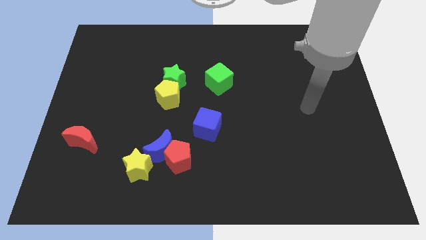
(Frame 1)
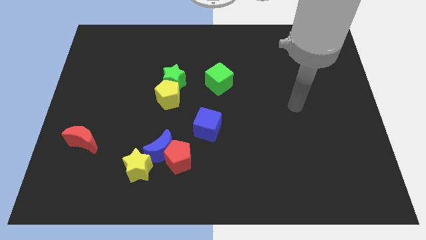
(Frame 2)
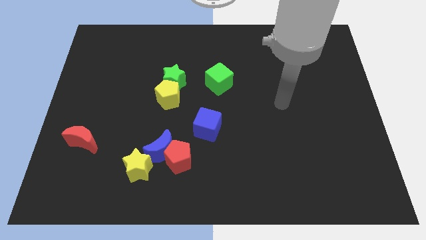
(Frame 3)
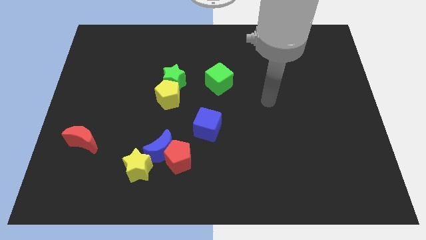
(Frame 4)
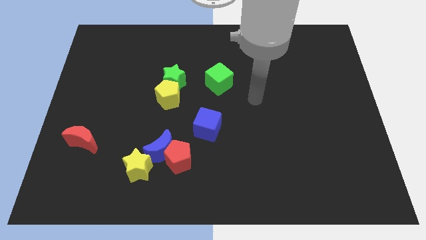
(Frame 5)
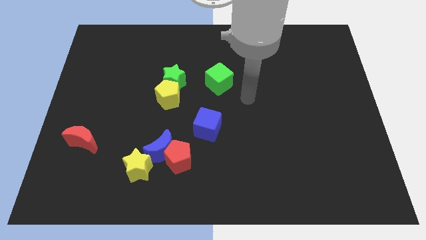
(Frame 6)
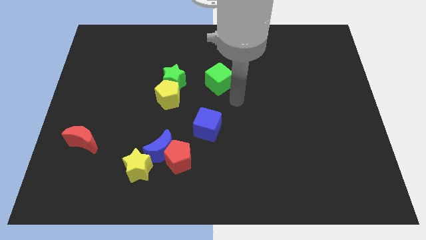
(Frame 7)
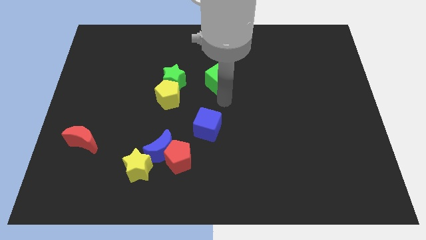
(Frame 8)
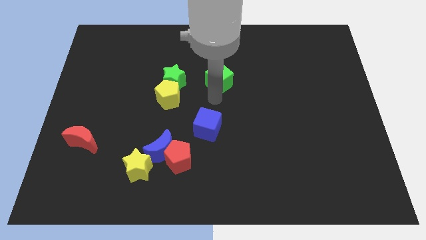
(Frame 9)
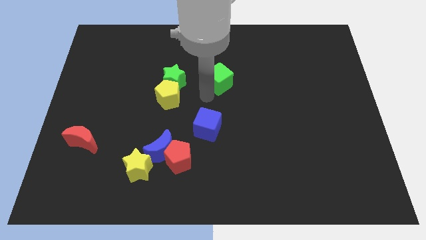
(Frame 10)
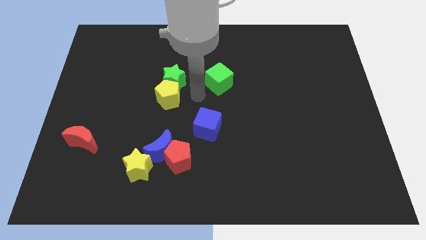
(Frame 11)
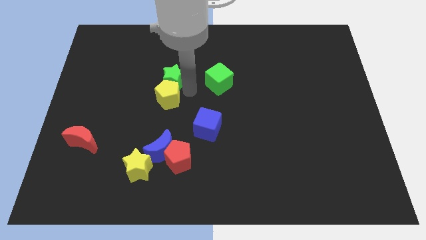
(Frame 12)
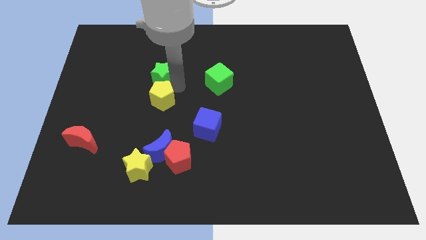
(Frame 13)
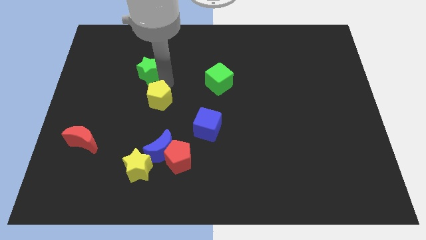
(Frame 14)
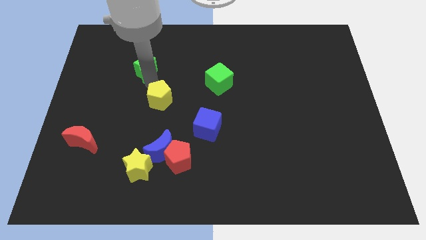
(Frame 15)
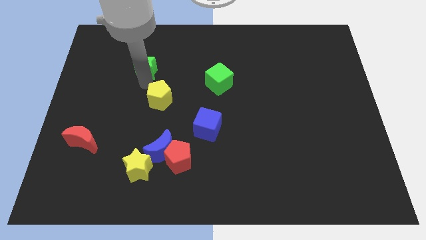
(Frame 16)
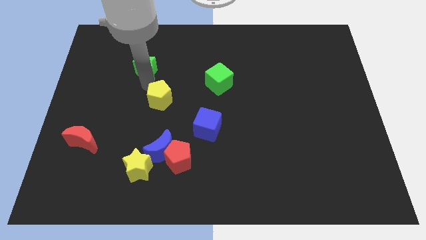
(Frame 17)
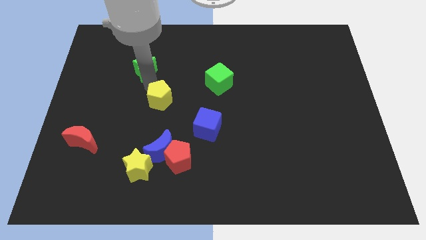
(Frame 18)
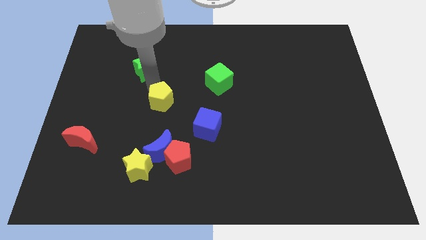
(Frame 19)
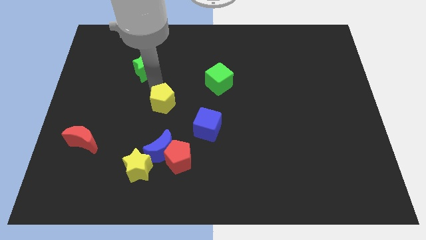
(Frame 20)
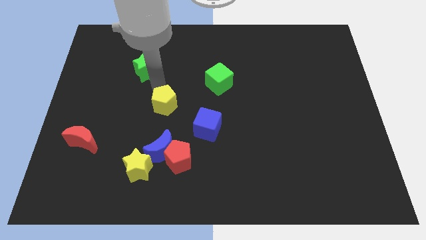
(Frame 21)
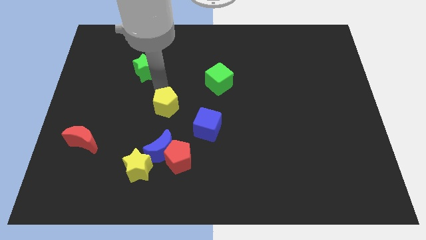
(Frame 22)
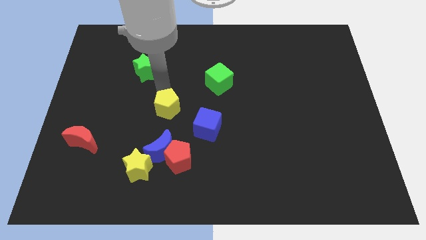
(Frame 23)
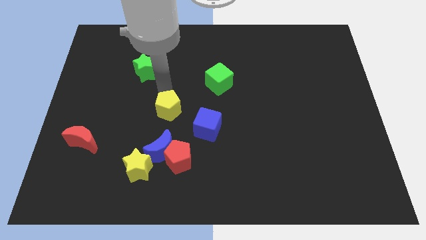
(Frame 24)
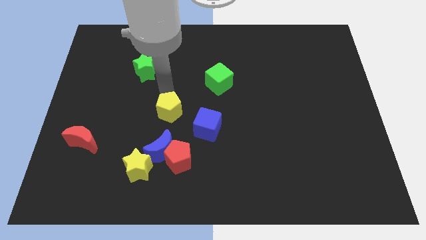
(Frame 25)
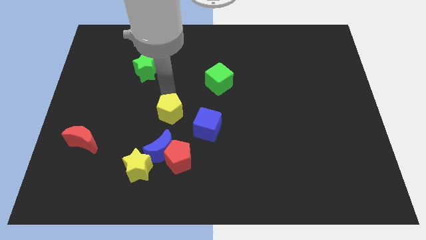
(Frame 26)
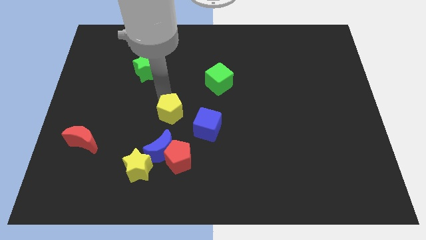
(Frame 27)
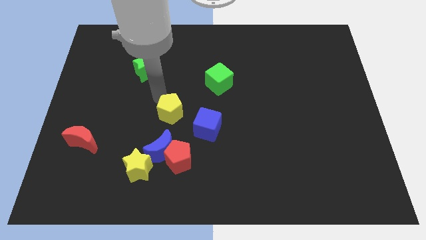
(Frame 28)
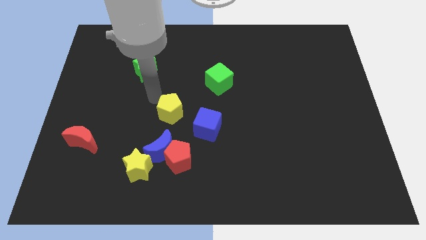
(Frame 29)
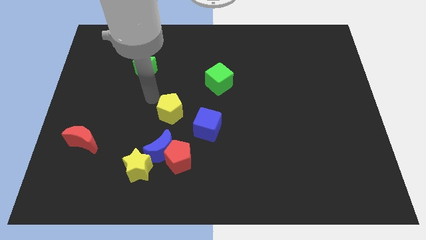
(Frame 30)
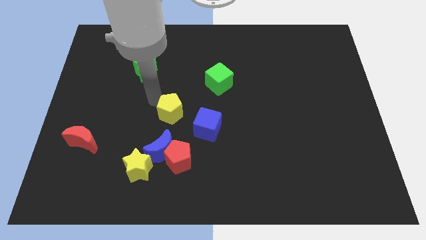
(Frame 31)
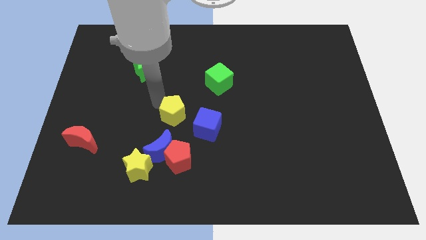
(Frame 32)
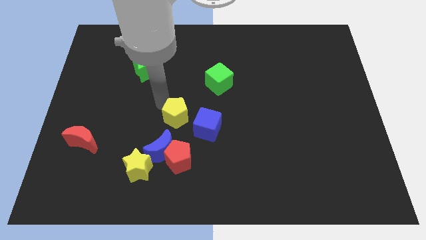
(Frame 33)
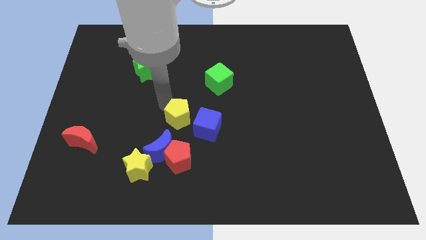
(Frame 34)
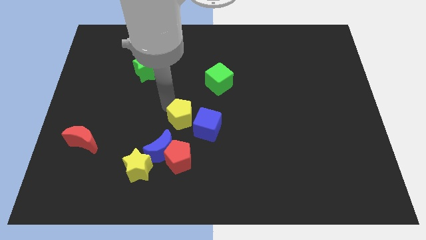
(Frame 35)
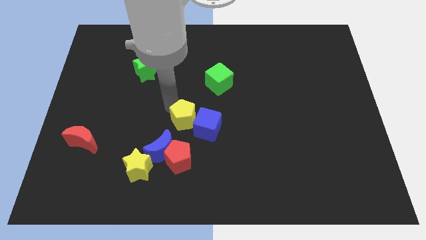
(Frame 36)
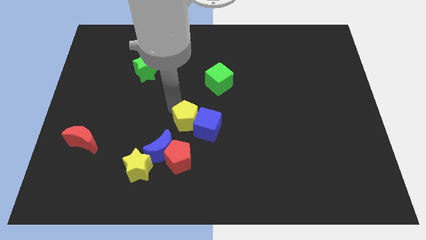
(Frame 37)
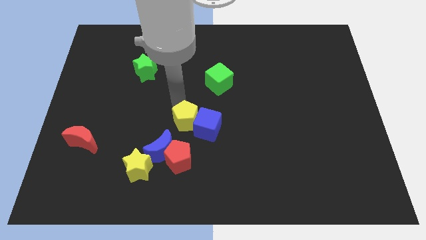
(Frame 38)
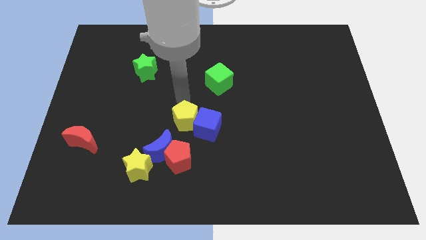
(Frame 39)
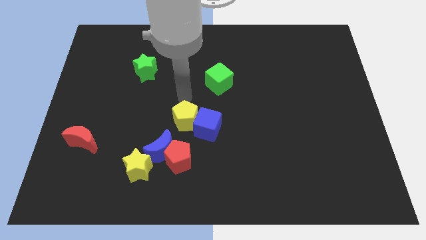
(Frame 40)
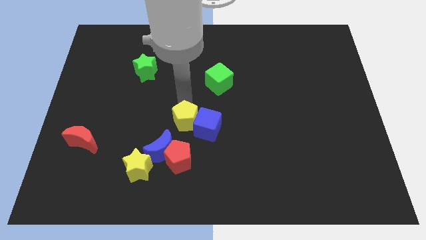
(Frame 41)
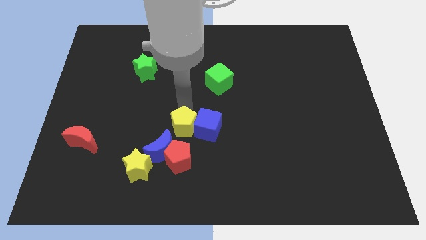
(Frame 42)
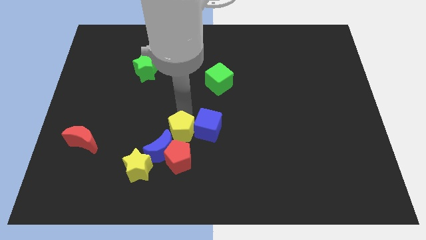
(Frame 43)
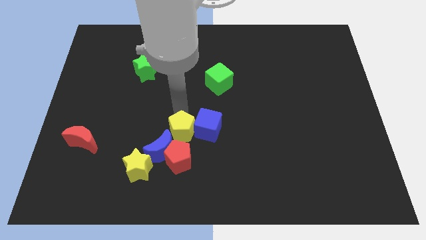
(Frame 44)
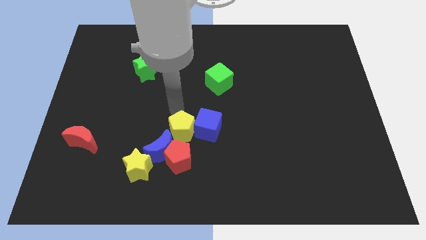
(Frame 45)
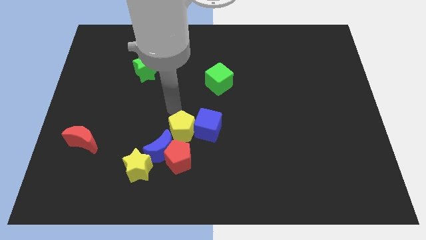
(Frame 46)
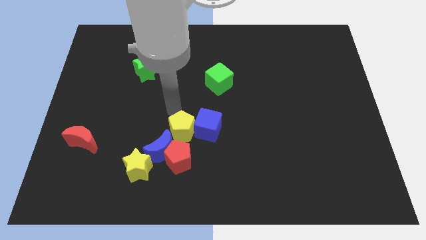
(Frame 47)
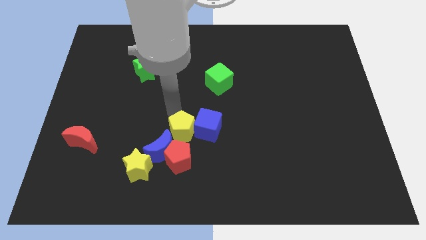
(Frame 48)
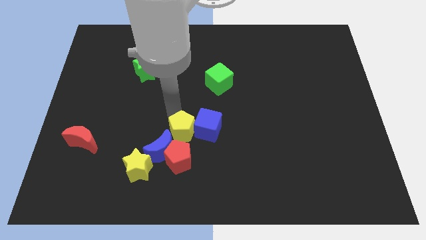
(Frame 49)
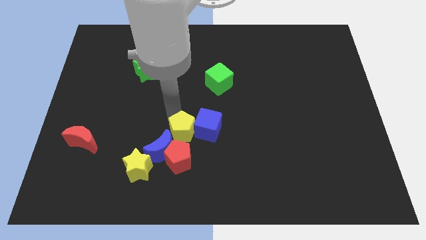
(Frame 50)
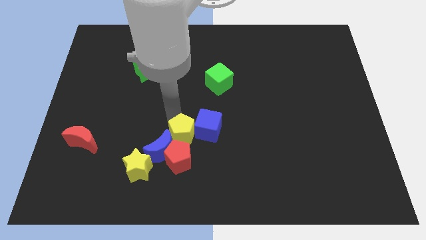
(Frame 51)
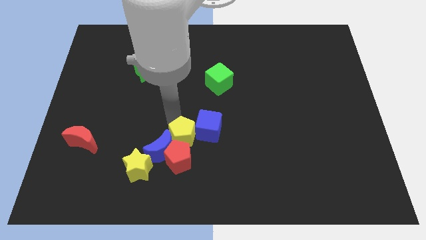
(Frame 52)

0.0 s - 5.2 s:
move the yellow pentagon towards the red pentagon

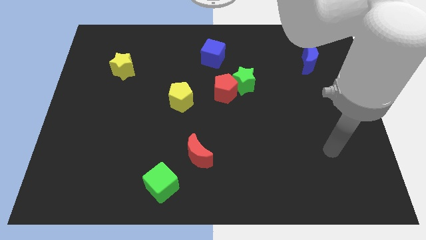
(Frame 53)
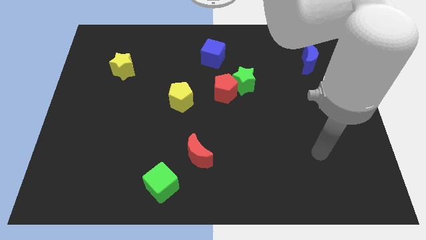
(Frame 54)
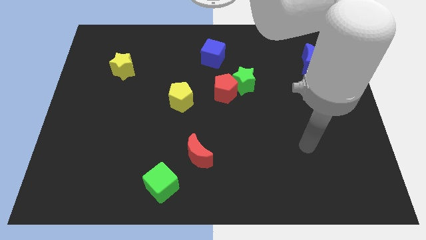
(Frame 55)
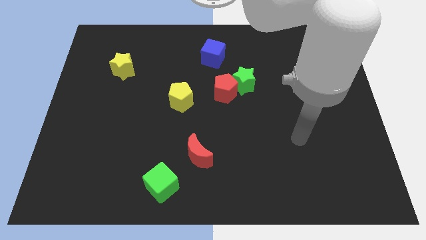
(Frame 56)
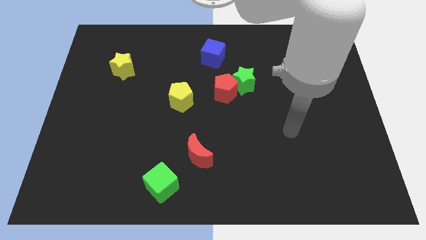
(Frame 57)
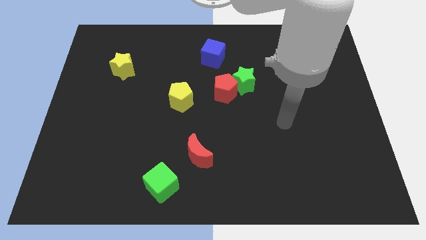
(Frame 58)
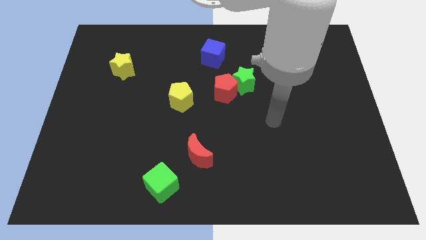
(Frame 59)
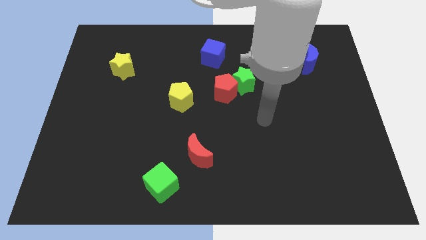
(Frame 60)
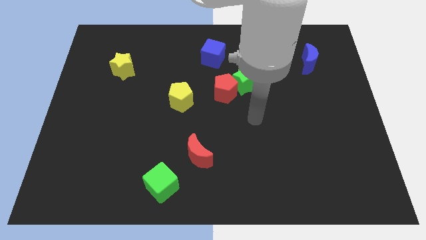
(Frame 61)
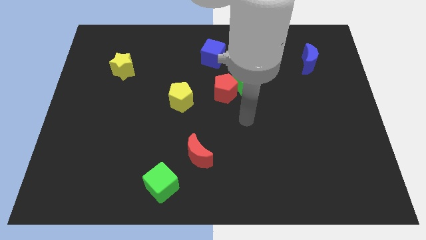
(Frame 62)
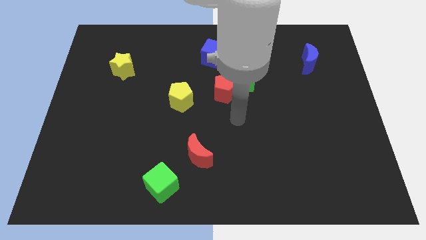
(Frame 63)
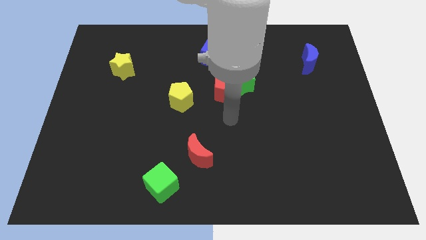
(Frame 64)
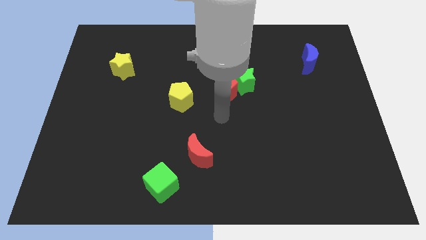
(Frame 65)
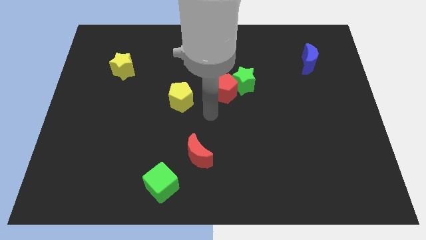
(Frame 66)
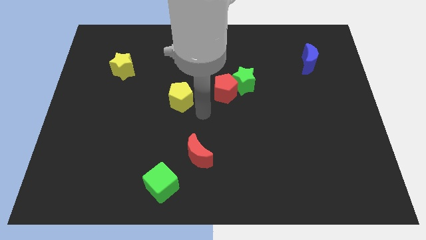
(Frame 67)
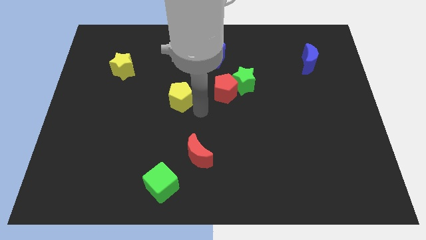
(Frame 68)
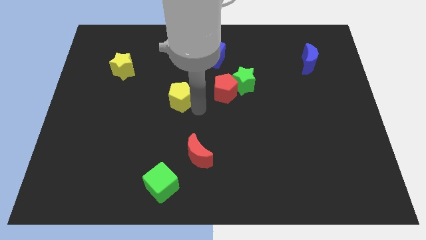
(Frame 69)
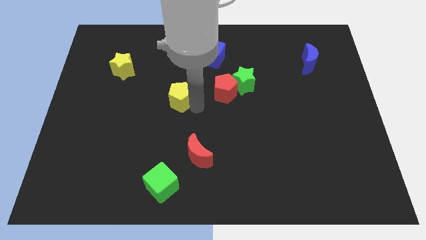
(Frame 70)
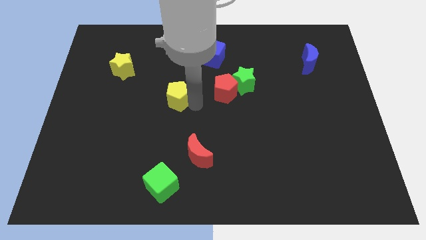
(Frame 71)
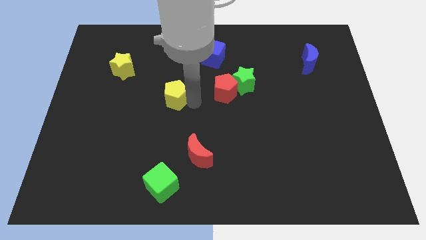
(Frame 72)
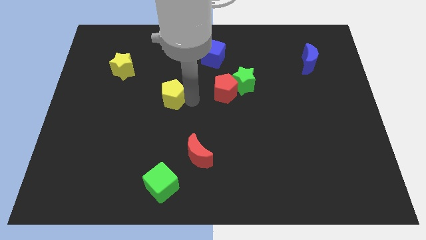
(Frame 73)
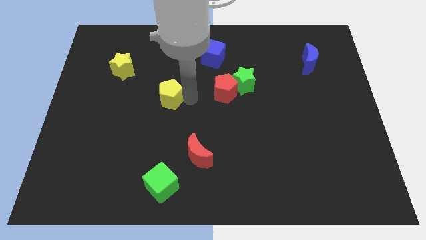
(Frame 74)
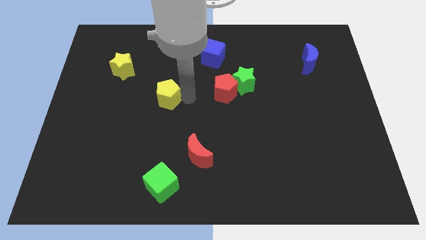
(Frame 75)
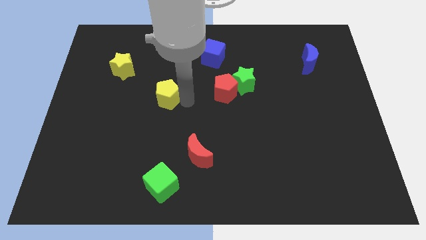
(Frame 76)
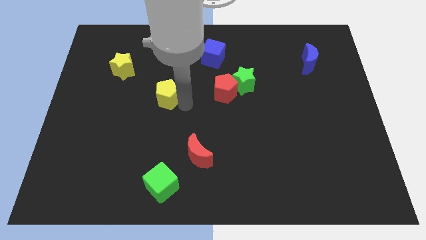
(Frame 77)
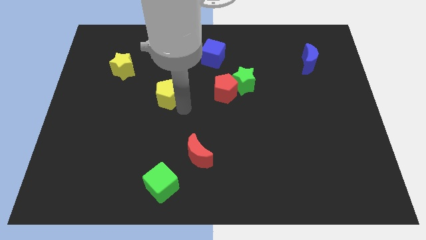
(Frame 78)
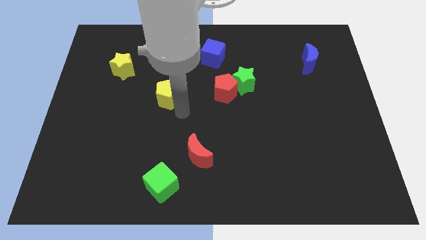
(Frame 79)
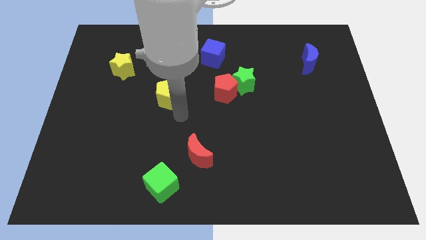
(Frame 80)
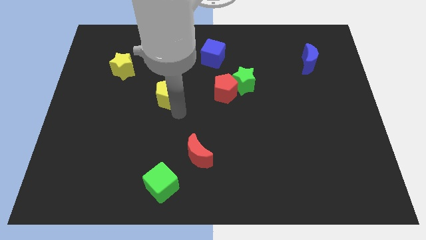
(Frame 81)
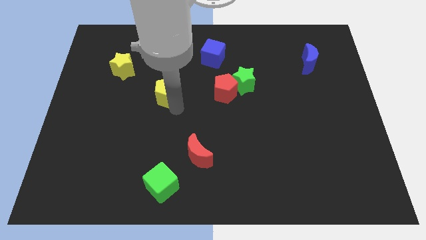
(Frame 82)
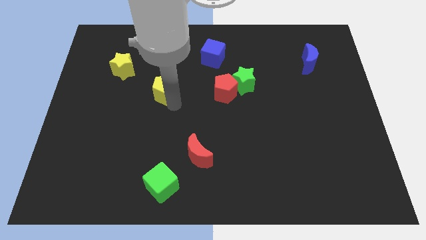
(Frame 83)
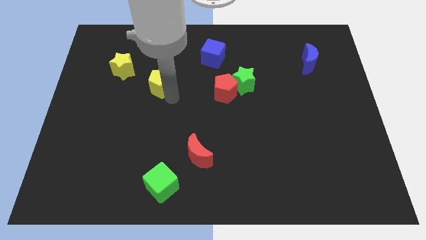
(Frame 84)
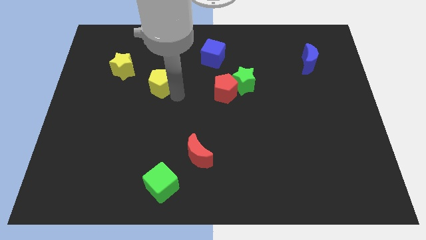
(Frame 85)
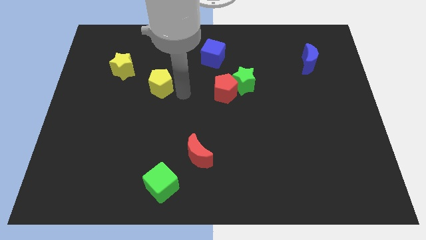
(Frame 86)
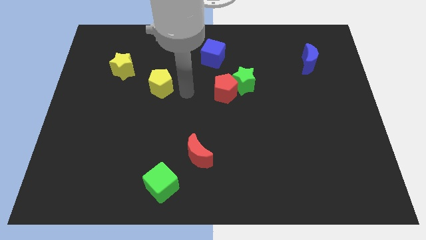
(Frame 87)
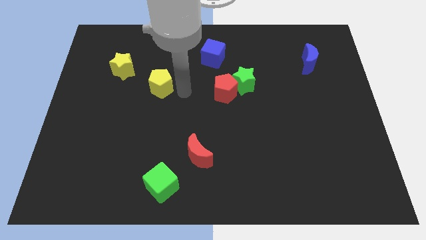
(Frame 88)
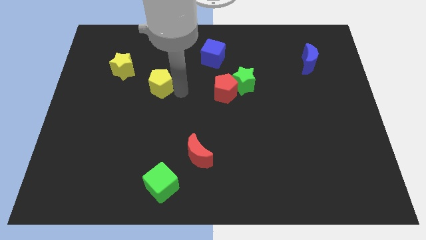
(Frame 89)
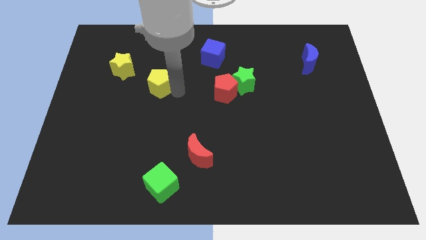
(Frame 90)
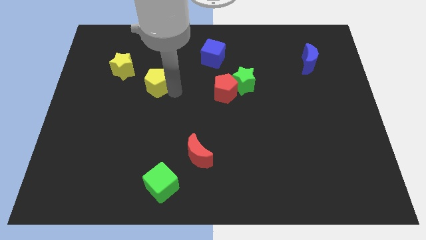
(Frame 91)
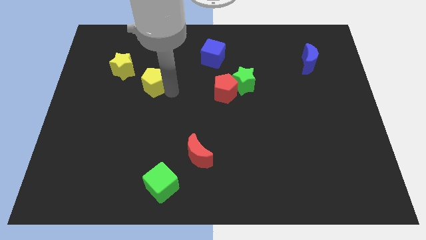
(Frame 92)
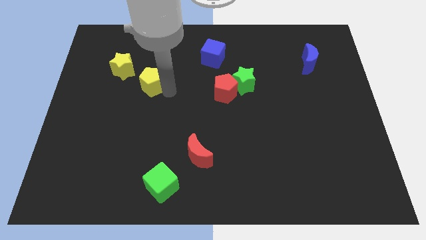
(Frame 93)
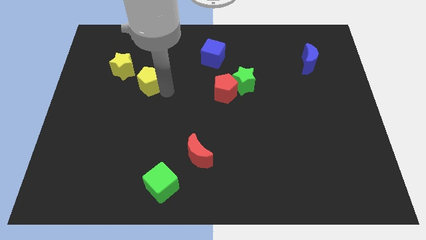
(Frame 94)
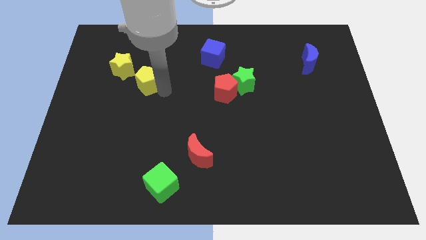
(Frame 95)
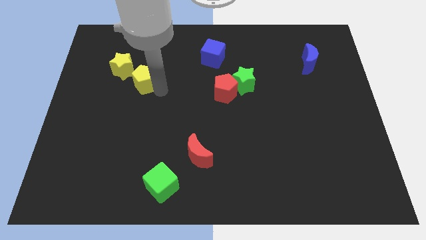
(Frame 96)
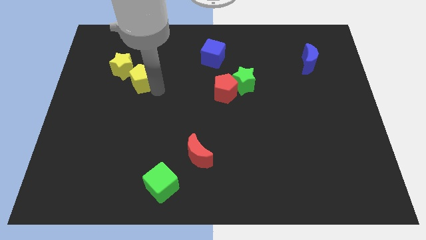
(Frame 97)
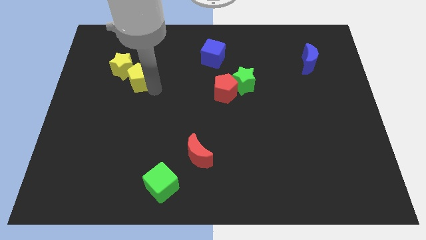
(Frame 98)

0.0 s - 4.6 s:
slide the yellow pentagon towards the yellow star
